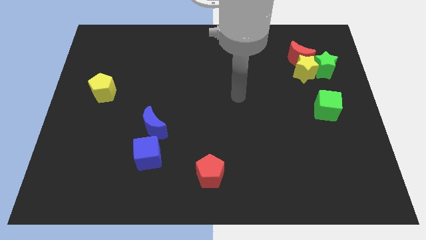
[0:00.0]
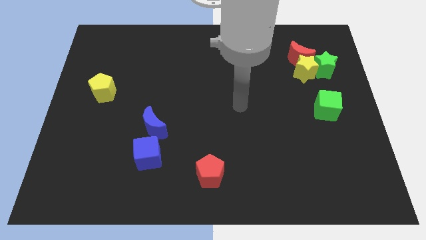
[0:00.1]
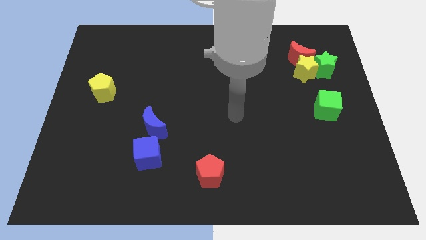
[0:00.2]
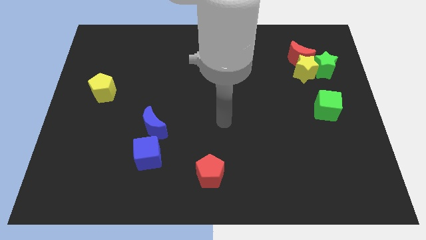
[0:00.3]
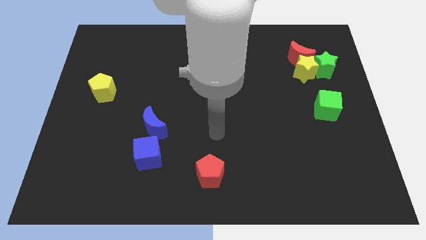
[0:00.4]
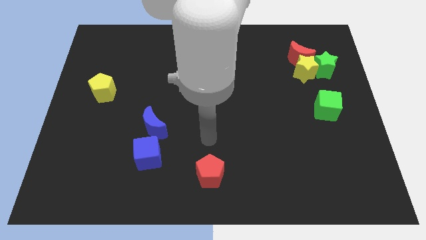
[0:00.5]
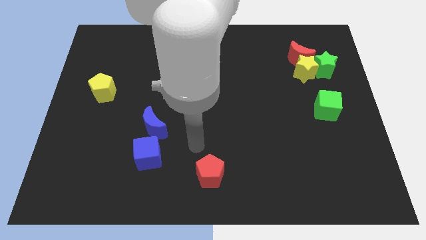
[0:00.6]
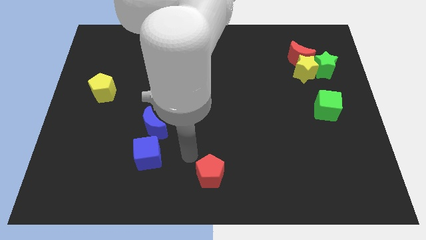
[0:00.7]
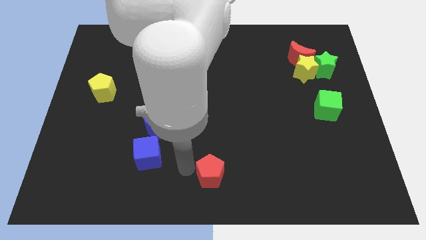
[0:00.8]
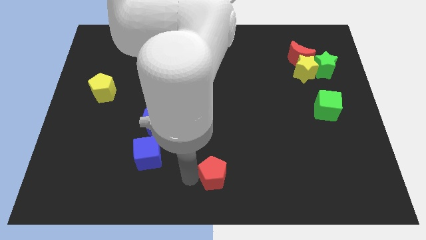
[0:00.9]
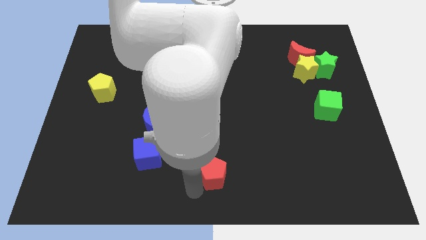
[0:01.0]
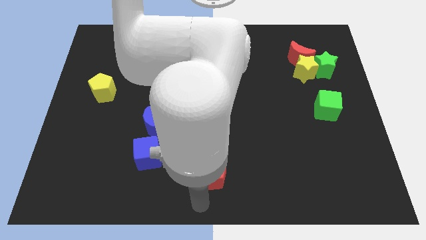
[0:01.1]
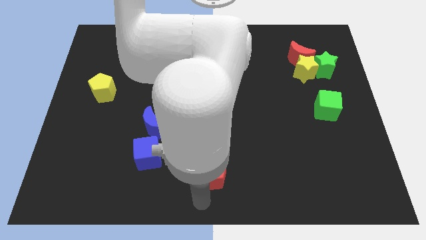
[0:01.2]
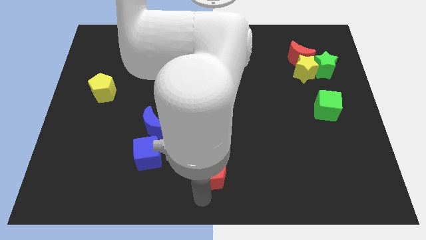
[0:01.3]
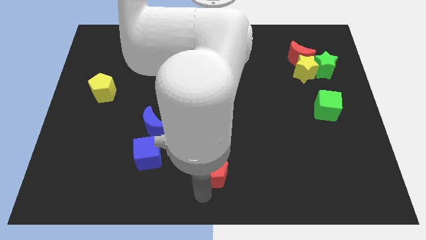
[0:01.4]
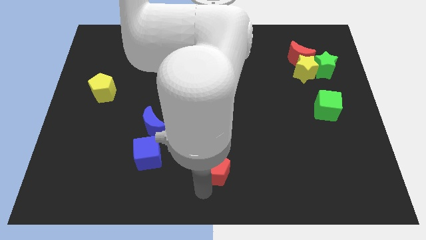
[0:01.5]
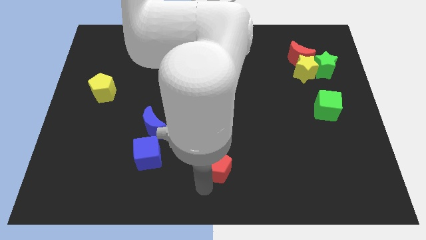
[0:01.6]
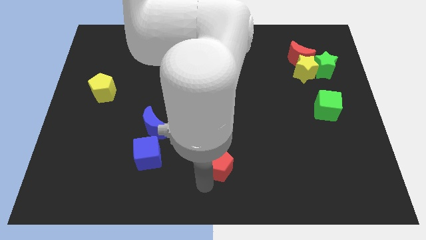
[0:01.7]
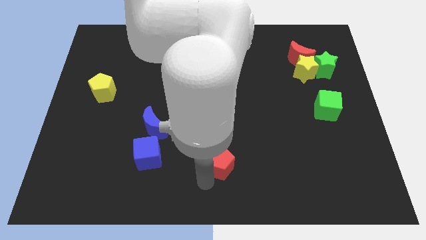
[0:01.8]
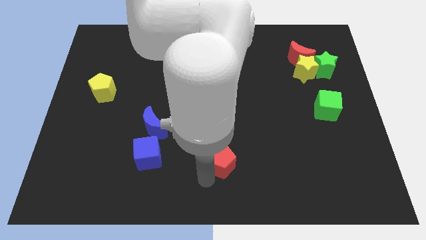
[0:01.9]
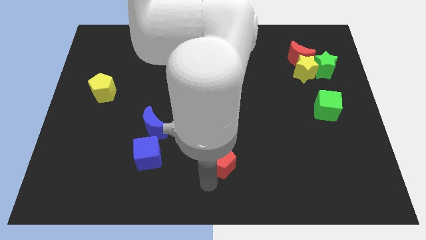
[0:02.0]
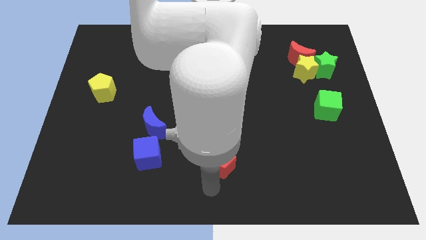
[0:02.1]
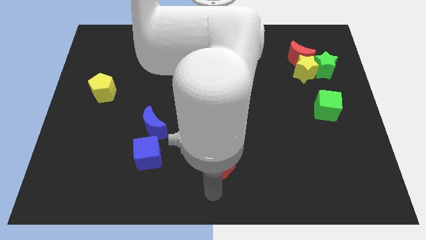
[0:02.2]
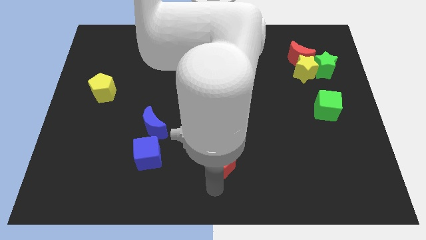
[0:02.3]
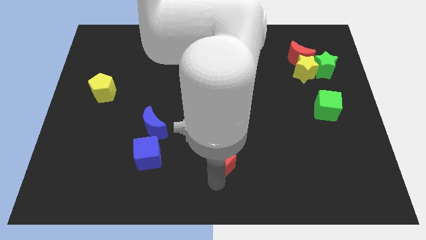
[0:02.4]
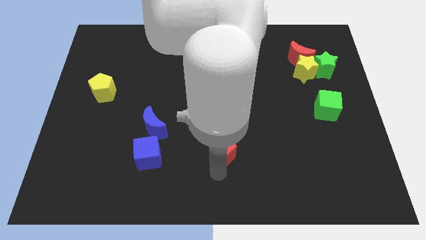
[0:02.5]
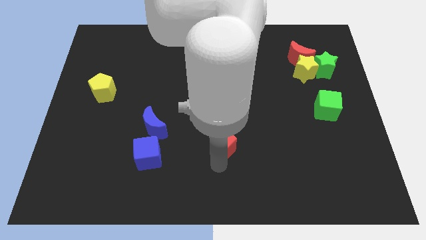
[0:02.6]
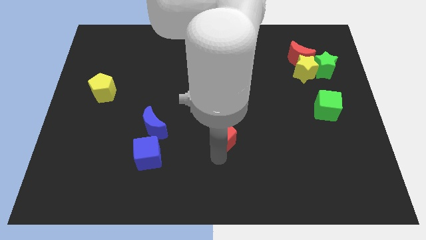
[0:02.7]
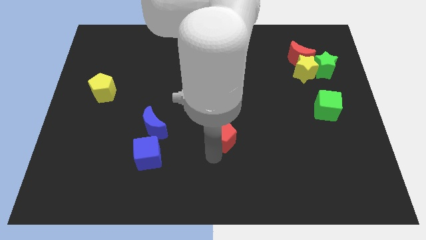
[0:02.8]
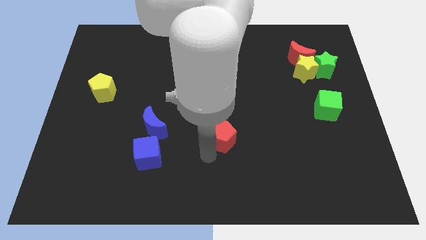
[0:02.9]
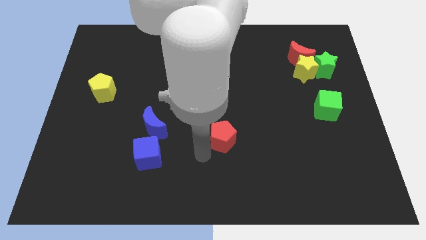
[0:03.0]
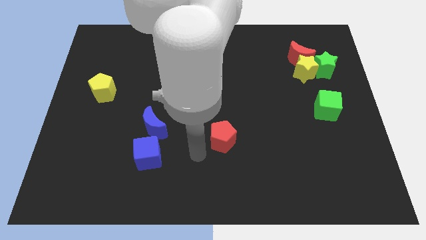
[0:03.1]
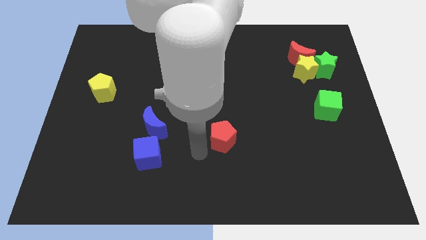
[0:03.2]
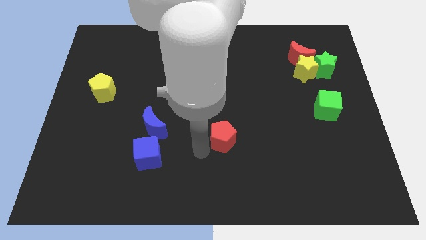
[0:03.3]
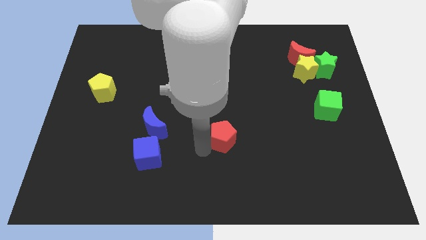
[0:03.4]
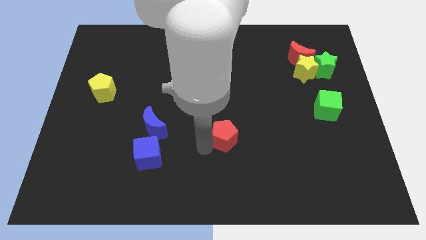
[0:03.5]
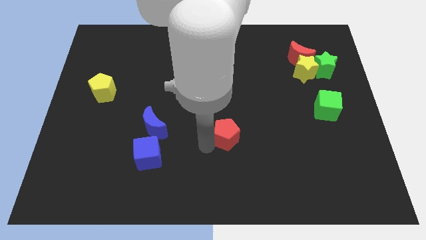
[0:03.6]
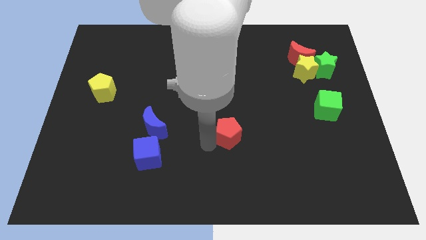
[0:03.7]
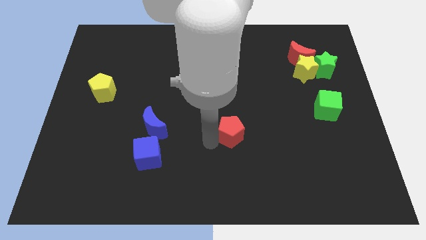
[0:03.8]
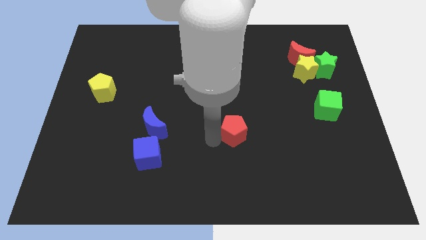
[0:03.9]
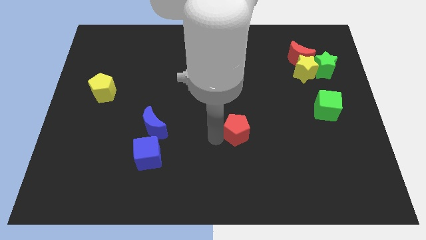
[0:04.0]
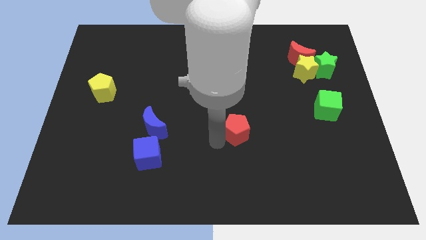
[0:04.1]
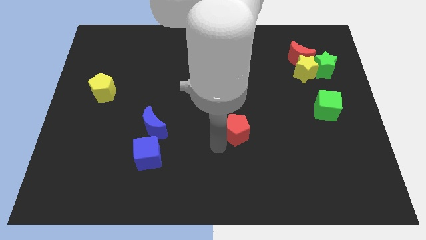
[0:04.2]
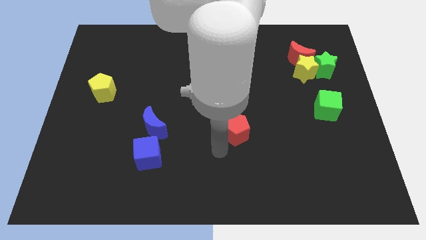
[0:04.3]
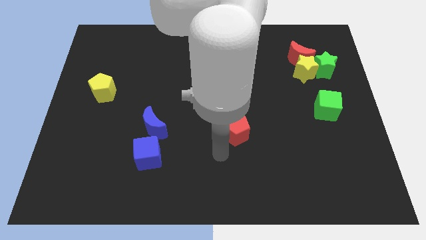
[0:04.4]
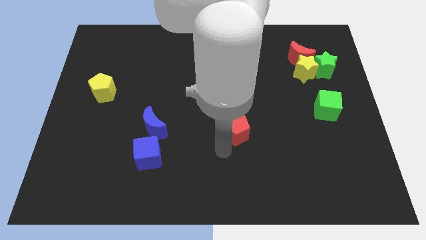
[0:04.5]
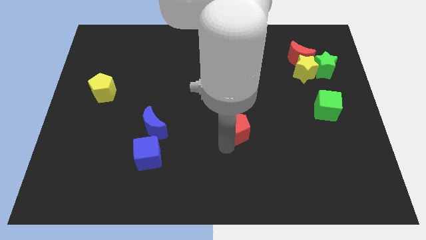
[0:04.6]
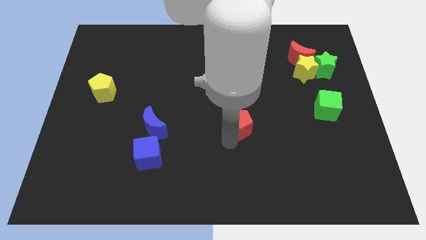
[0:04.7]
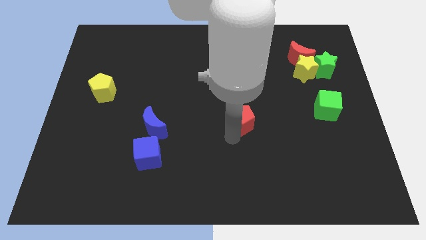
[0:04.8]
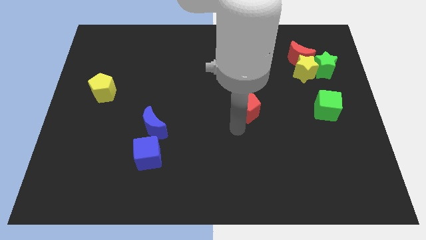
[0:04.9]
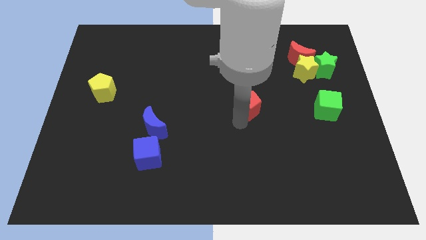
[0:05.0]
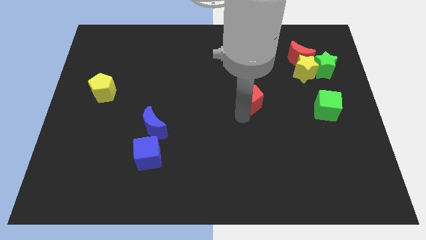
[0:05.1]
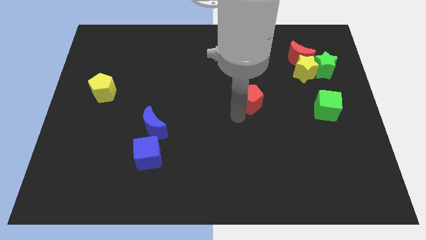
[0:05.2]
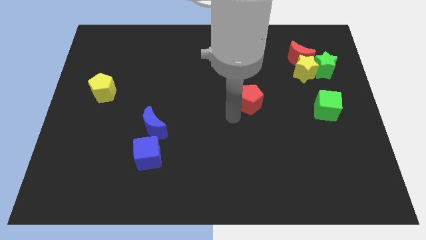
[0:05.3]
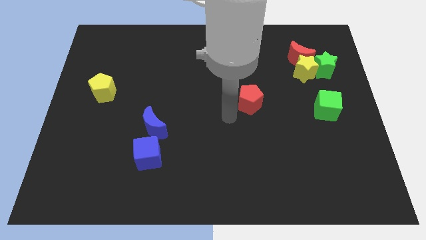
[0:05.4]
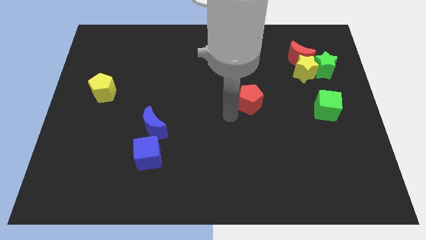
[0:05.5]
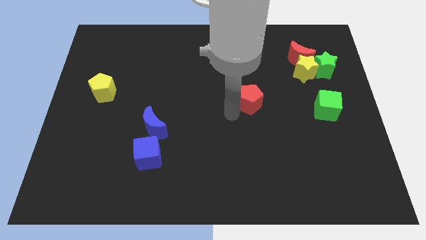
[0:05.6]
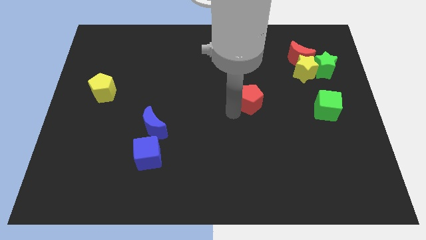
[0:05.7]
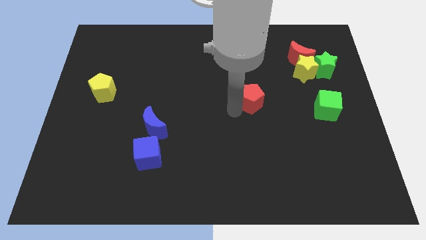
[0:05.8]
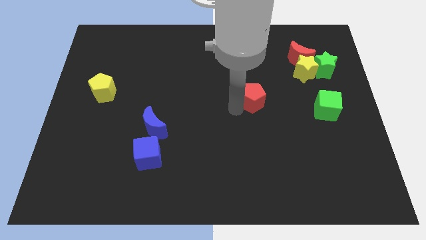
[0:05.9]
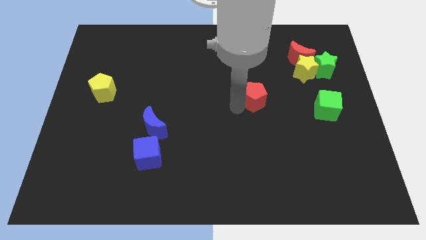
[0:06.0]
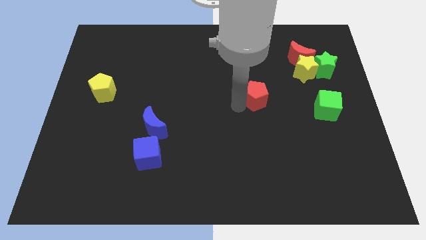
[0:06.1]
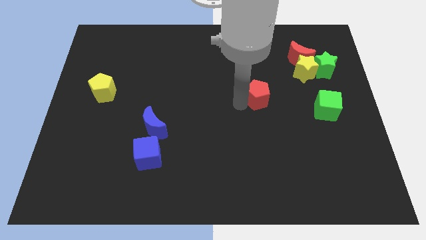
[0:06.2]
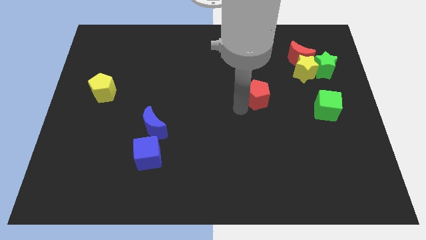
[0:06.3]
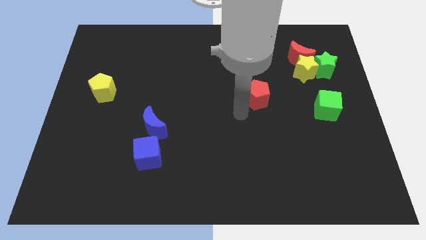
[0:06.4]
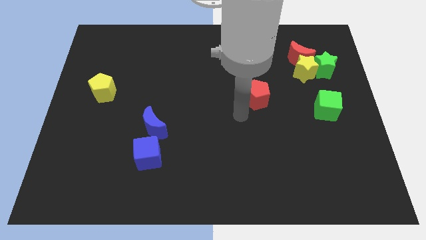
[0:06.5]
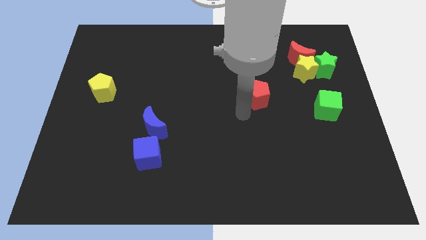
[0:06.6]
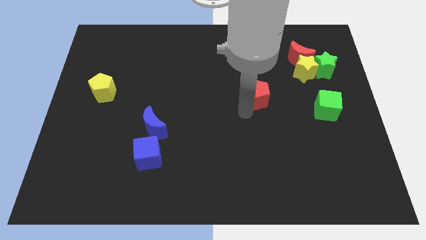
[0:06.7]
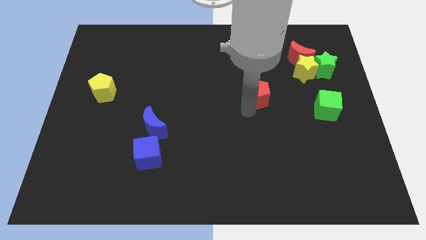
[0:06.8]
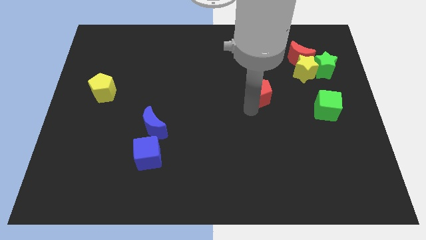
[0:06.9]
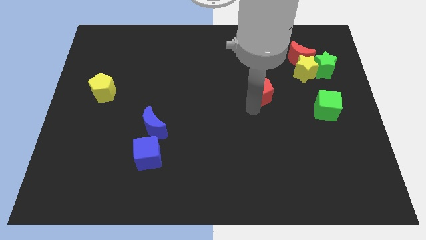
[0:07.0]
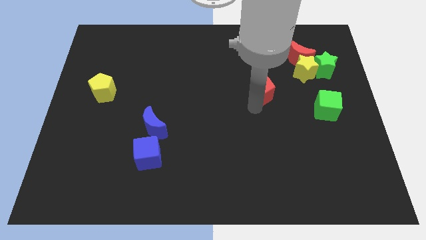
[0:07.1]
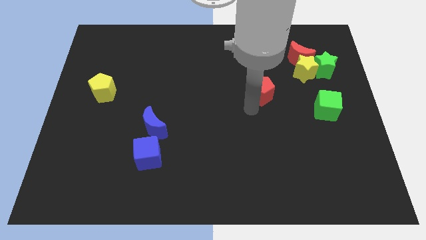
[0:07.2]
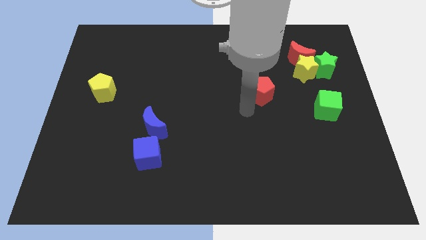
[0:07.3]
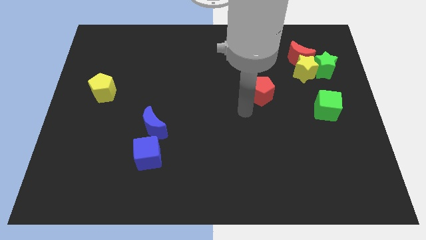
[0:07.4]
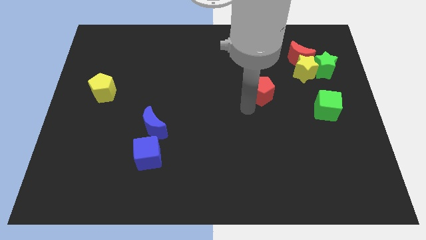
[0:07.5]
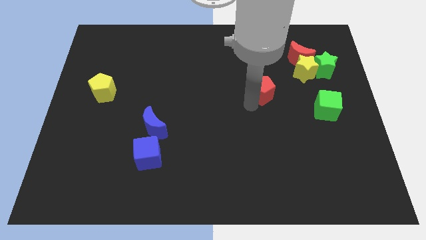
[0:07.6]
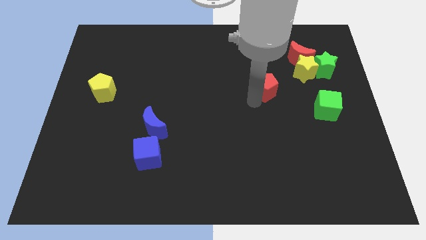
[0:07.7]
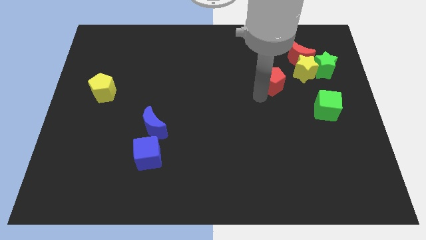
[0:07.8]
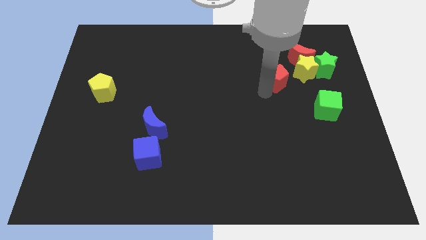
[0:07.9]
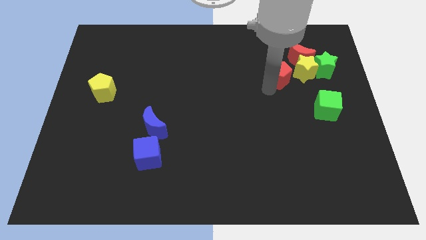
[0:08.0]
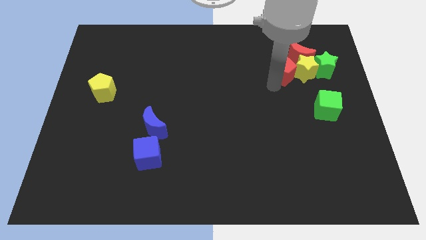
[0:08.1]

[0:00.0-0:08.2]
move the red pentagon to the top left side of the yellow star
